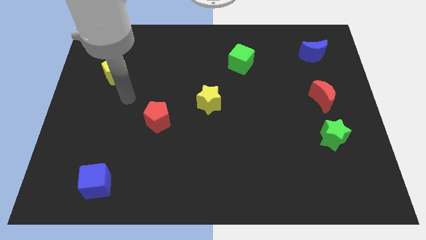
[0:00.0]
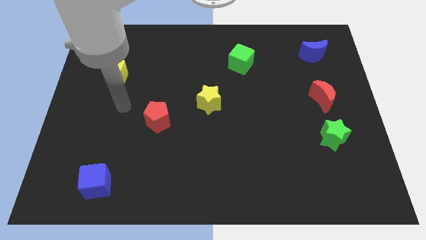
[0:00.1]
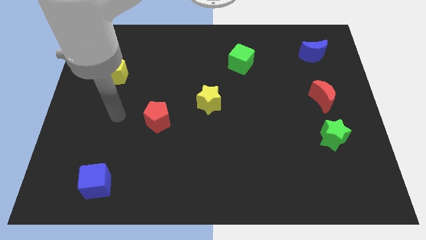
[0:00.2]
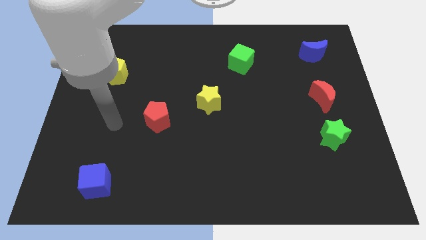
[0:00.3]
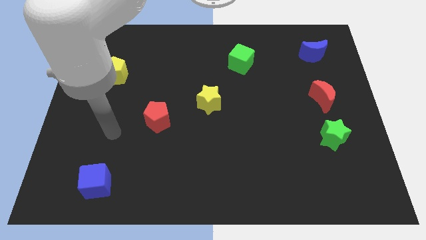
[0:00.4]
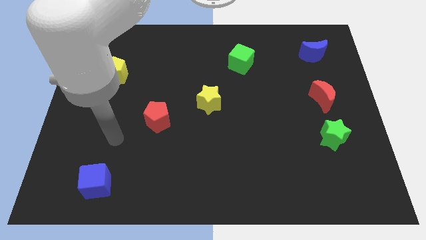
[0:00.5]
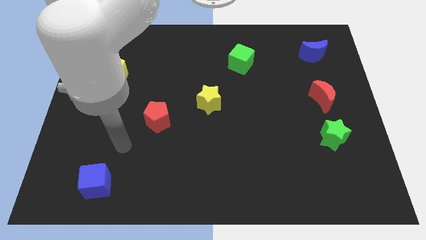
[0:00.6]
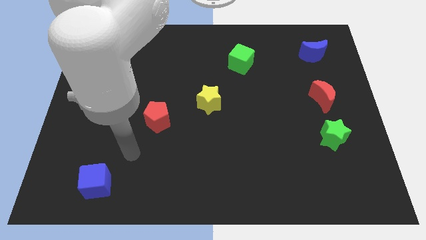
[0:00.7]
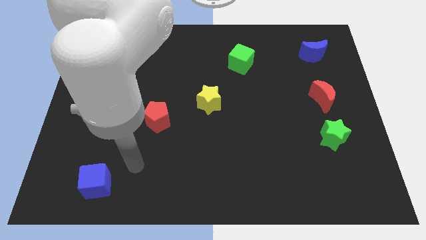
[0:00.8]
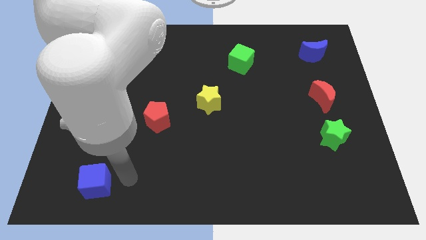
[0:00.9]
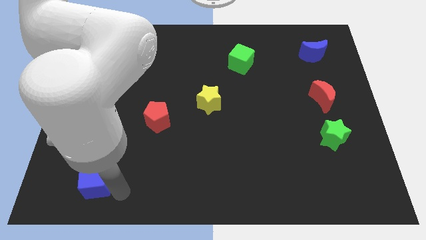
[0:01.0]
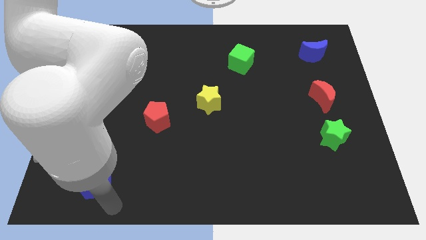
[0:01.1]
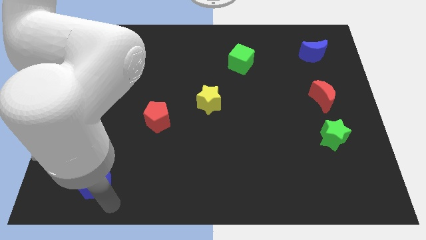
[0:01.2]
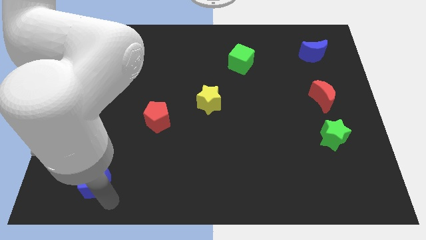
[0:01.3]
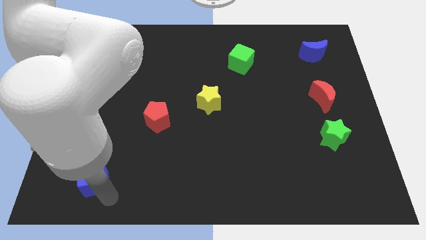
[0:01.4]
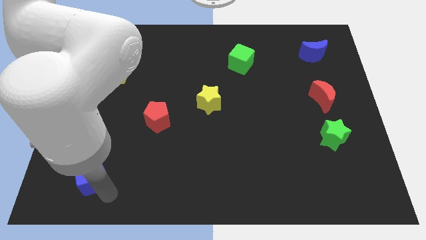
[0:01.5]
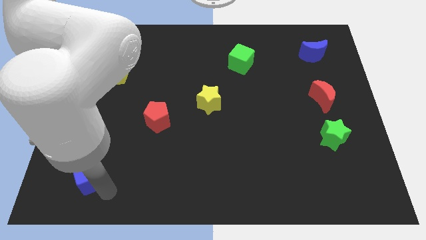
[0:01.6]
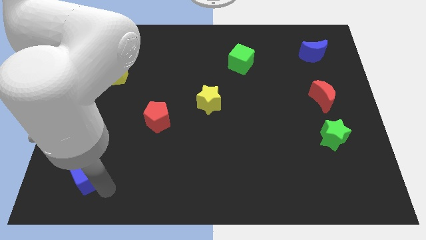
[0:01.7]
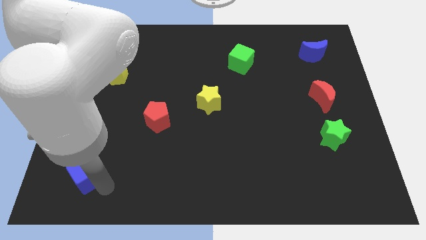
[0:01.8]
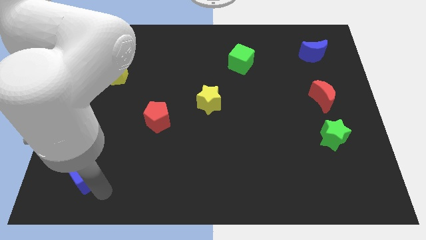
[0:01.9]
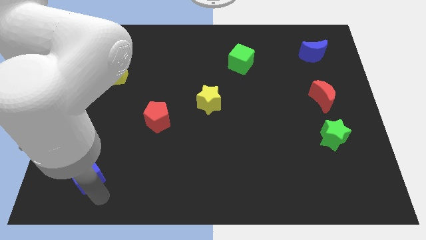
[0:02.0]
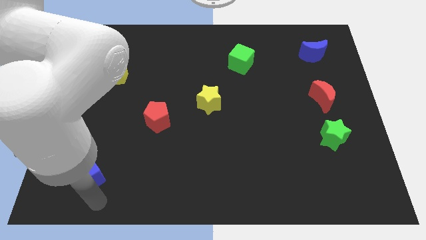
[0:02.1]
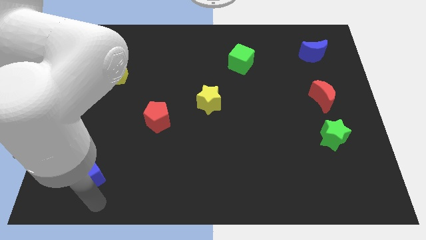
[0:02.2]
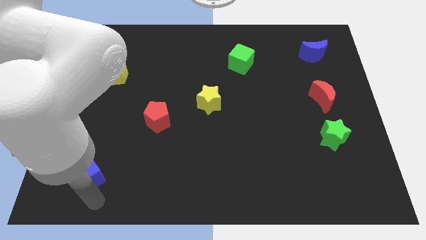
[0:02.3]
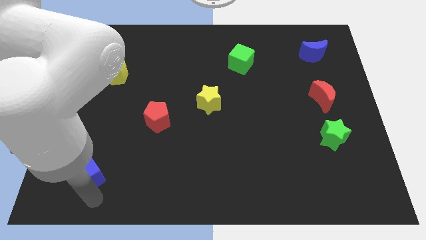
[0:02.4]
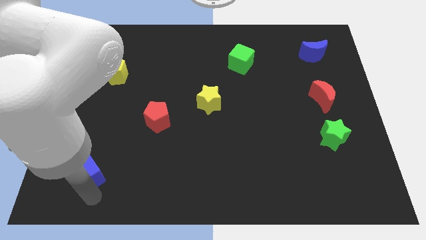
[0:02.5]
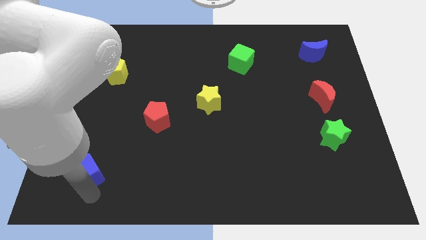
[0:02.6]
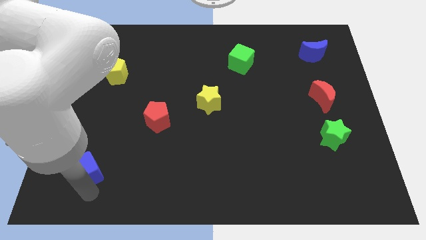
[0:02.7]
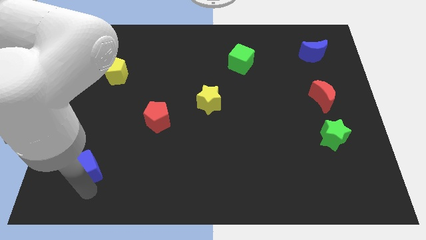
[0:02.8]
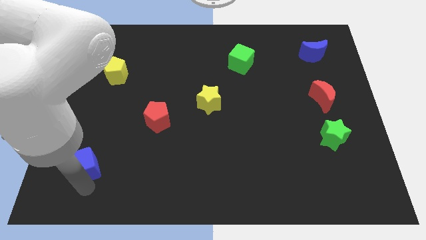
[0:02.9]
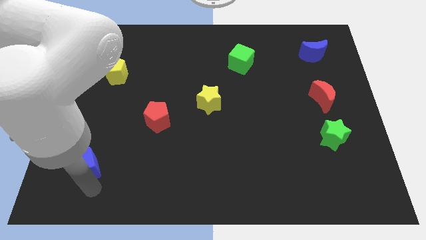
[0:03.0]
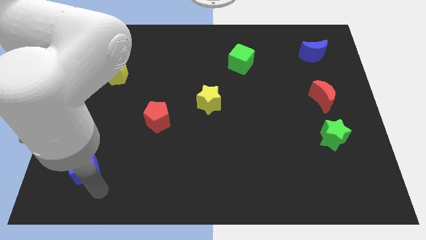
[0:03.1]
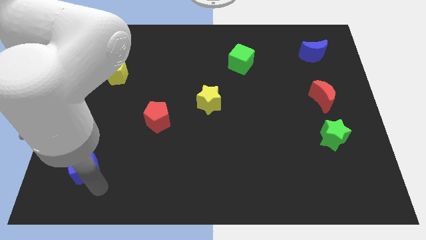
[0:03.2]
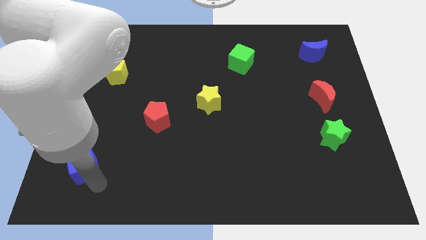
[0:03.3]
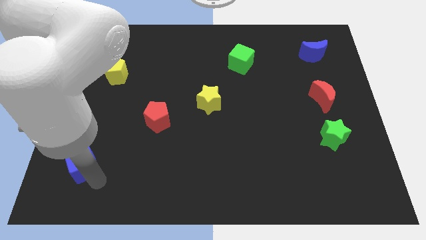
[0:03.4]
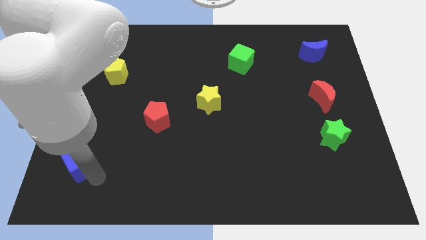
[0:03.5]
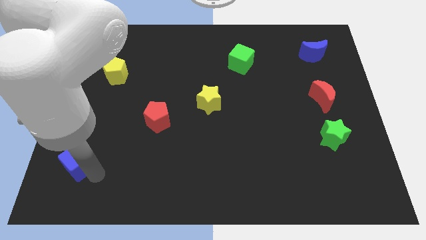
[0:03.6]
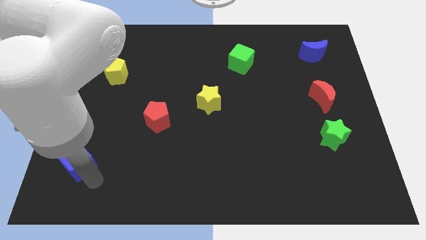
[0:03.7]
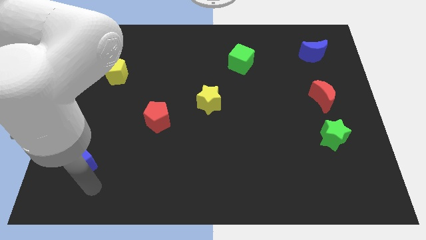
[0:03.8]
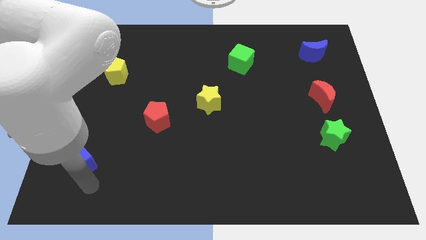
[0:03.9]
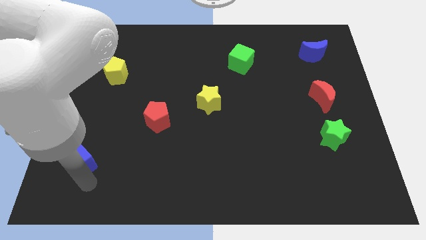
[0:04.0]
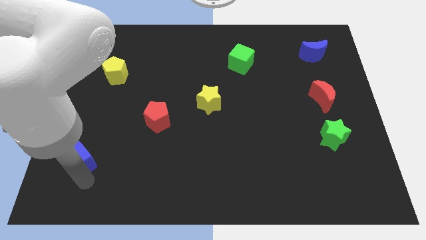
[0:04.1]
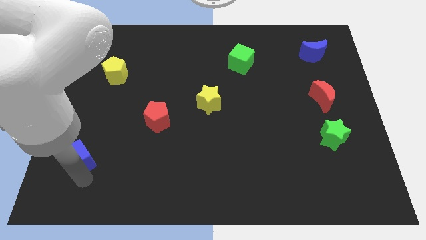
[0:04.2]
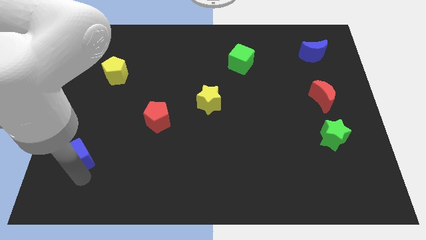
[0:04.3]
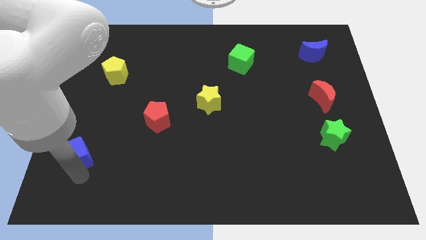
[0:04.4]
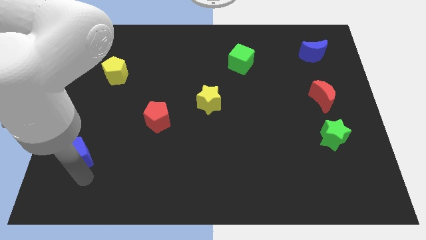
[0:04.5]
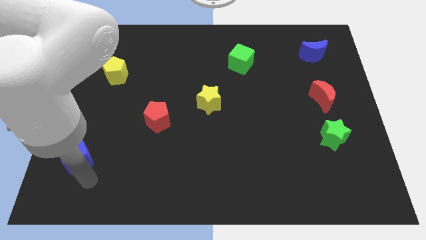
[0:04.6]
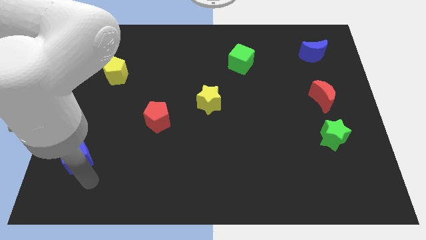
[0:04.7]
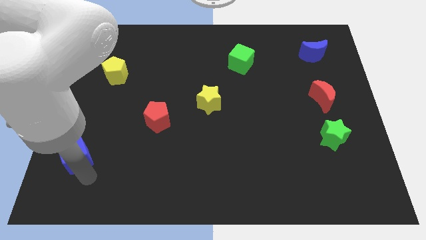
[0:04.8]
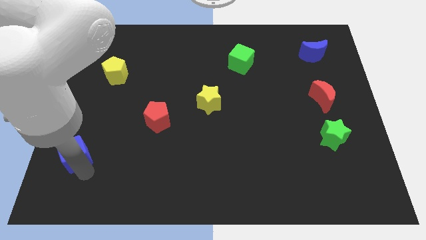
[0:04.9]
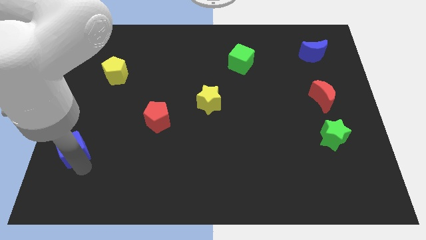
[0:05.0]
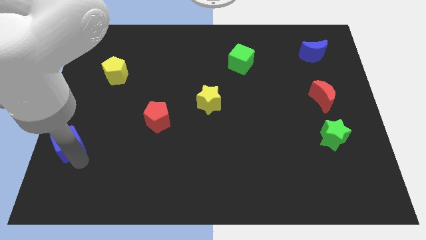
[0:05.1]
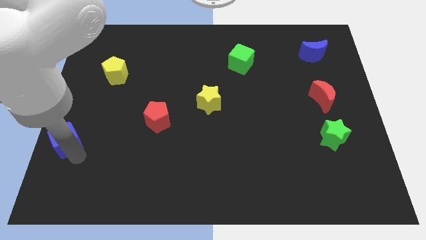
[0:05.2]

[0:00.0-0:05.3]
put the blue cube to the left side of the board
